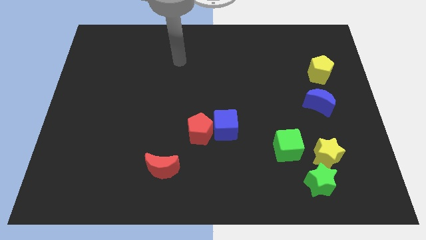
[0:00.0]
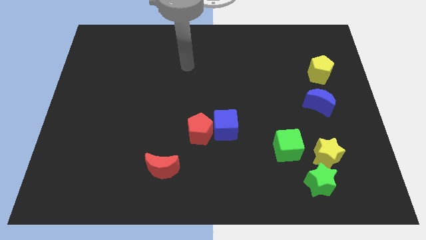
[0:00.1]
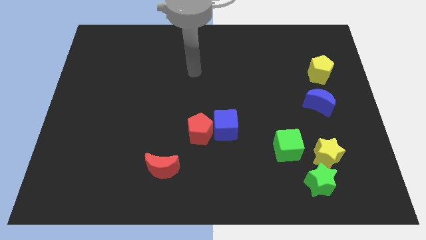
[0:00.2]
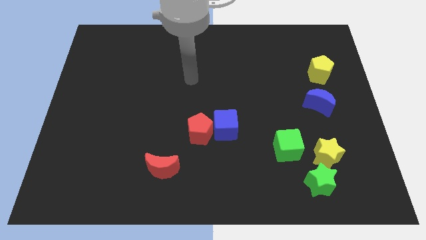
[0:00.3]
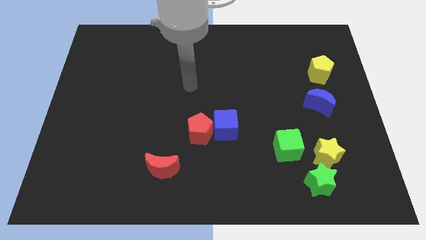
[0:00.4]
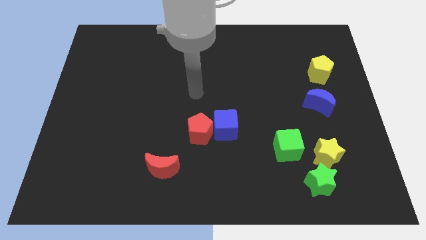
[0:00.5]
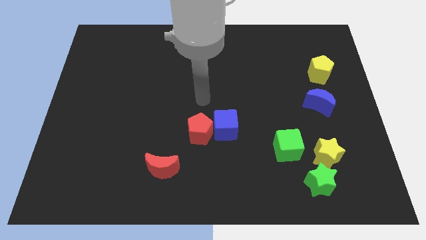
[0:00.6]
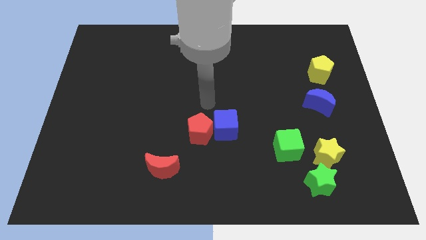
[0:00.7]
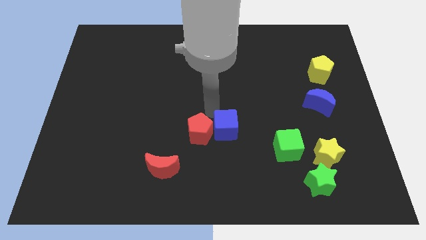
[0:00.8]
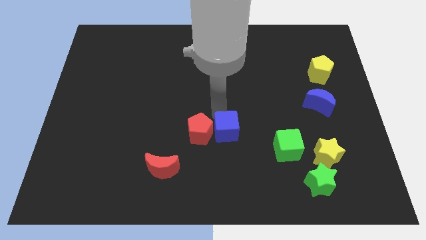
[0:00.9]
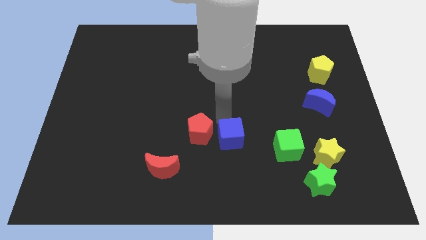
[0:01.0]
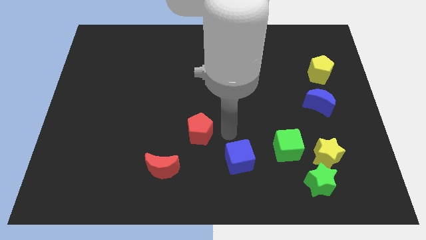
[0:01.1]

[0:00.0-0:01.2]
pull the red pentagon apart from the blue cube

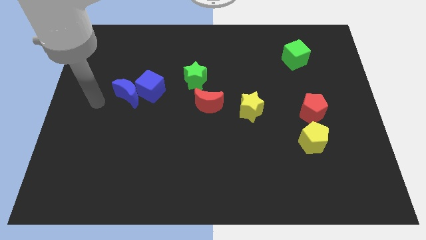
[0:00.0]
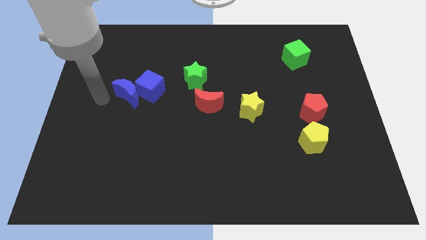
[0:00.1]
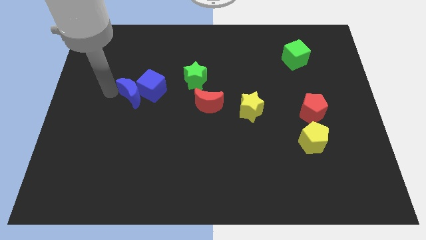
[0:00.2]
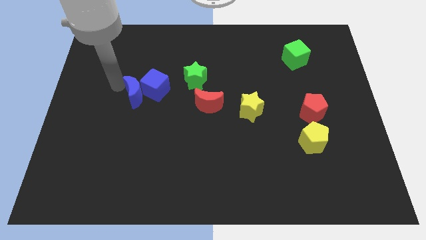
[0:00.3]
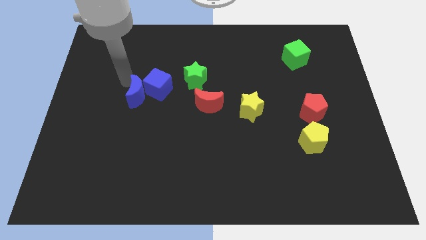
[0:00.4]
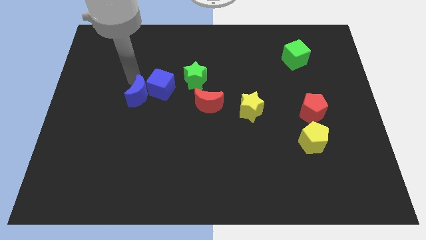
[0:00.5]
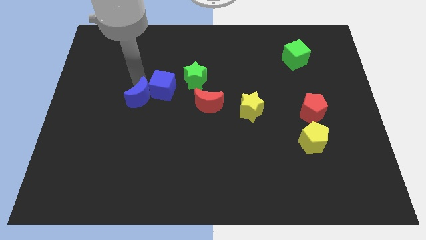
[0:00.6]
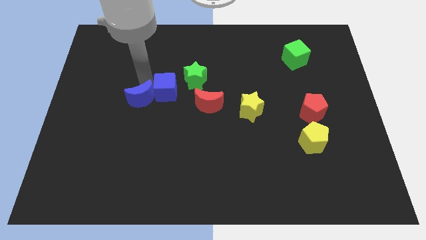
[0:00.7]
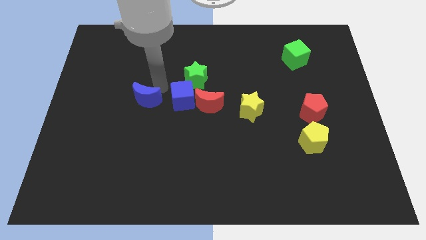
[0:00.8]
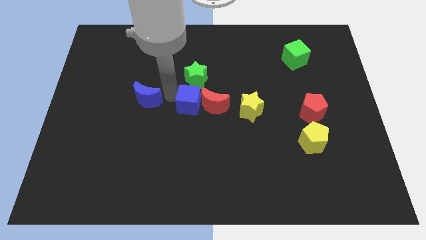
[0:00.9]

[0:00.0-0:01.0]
separate the blue moon from the blue cube

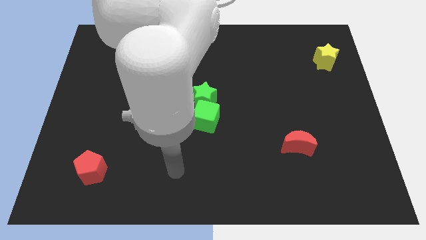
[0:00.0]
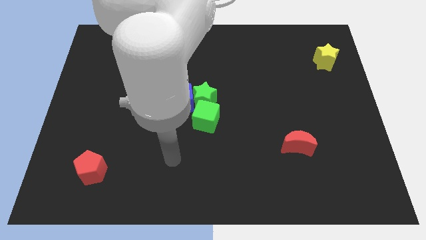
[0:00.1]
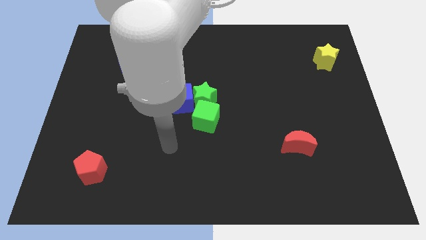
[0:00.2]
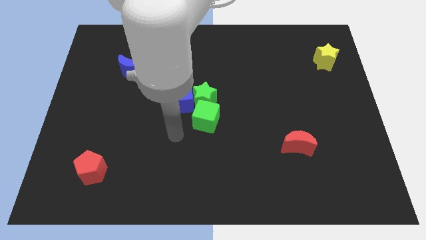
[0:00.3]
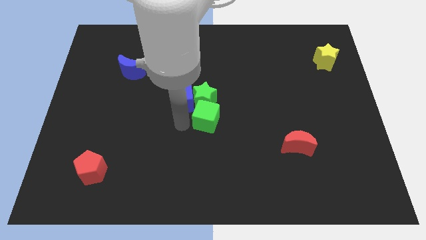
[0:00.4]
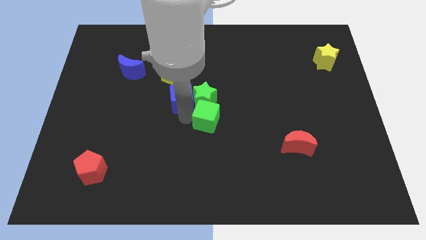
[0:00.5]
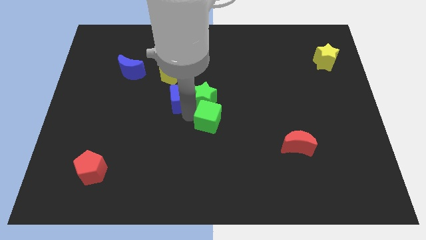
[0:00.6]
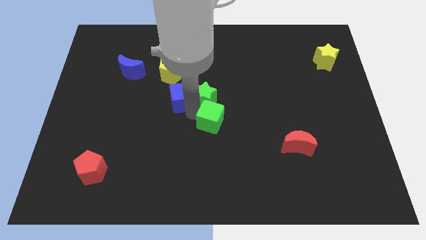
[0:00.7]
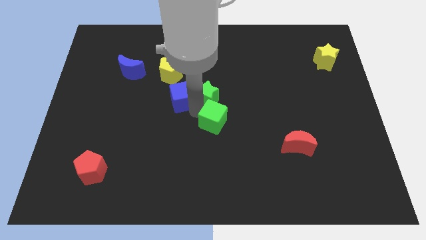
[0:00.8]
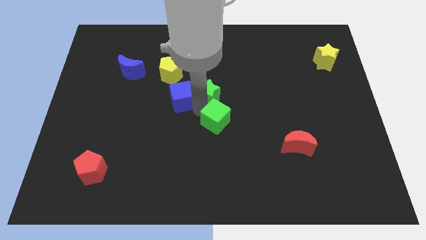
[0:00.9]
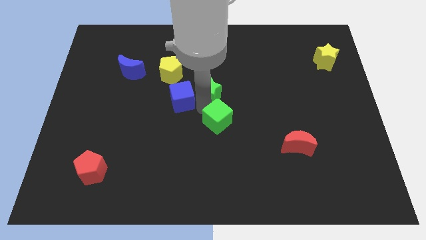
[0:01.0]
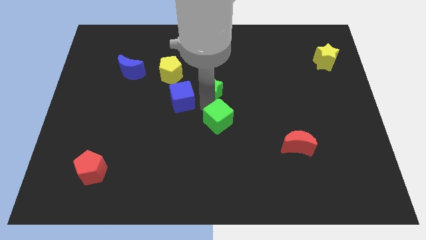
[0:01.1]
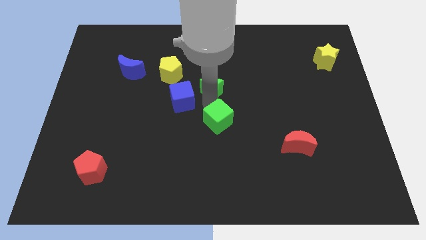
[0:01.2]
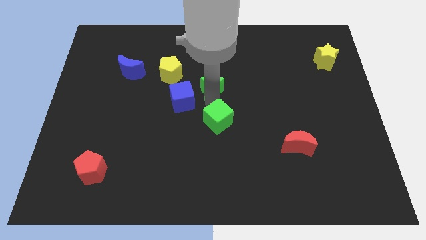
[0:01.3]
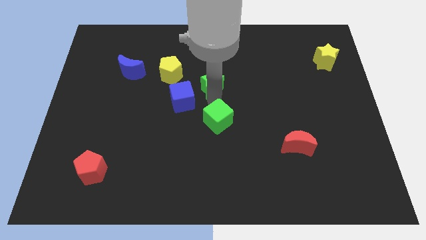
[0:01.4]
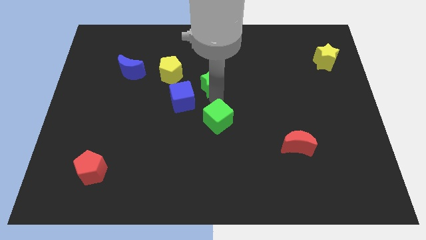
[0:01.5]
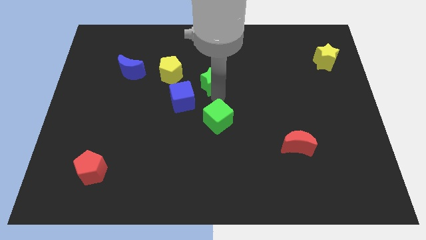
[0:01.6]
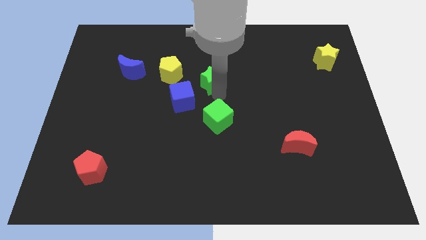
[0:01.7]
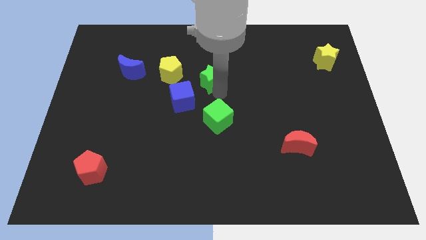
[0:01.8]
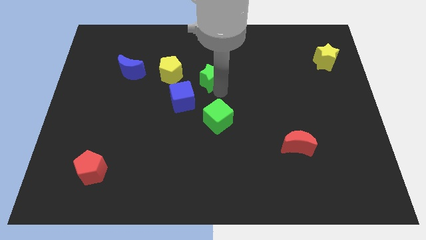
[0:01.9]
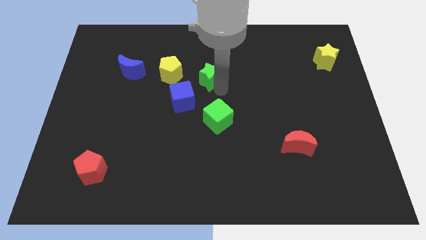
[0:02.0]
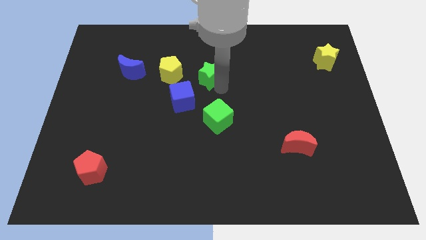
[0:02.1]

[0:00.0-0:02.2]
pull the green star apart from the blue cube and green cube

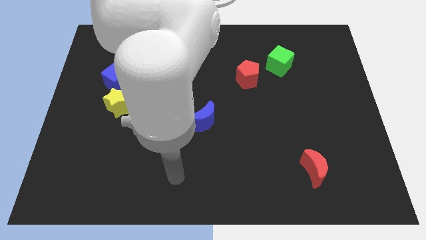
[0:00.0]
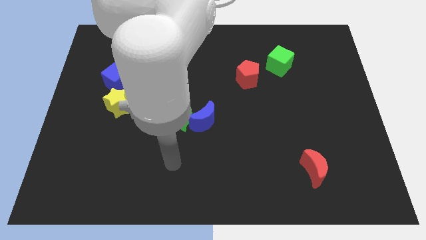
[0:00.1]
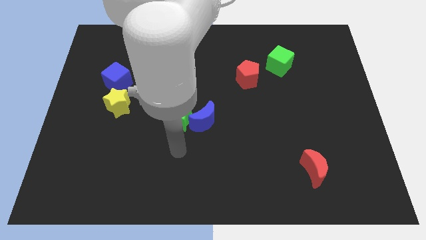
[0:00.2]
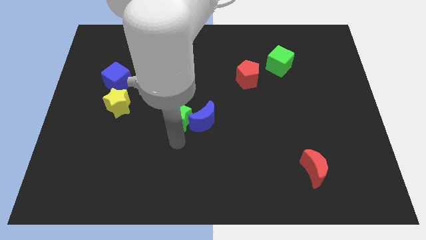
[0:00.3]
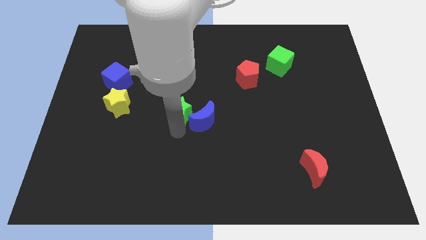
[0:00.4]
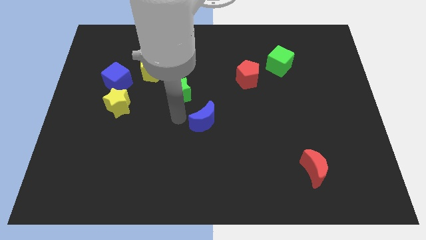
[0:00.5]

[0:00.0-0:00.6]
move the blue moon away from the green star

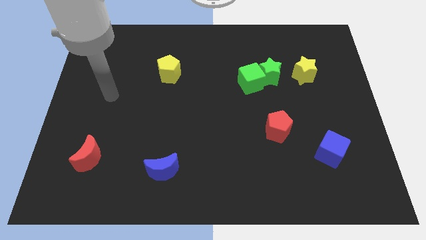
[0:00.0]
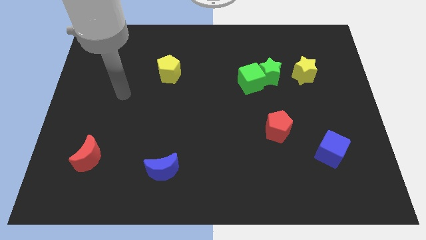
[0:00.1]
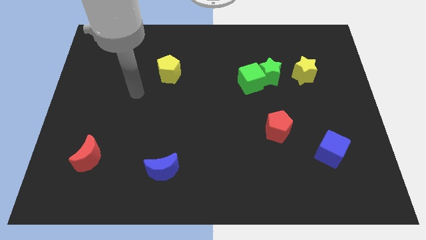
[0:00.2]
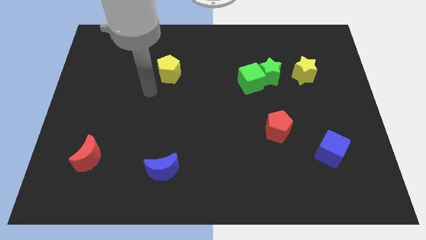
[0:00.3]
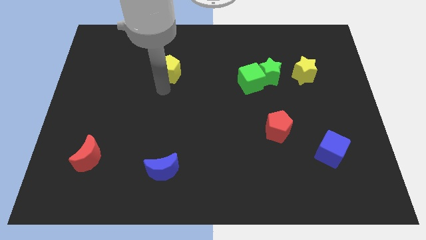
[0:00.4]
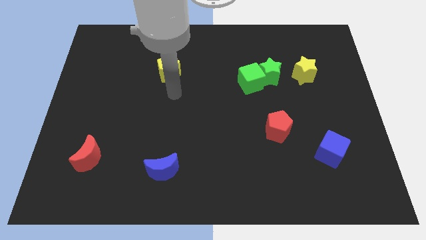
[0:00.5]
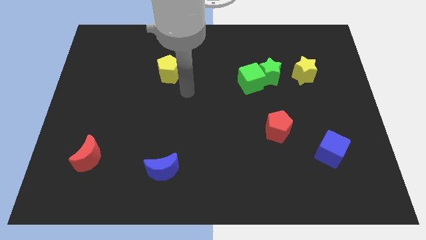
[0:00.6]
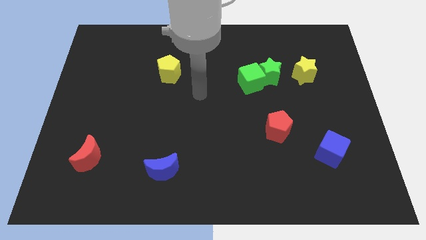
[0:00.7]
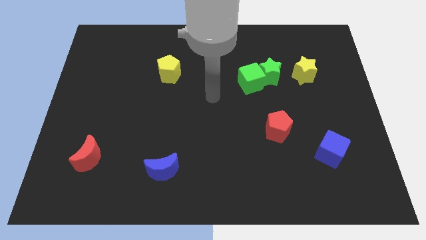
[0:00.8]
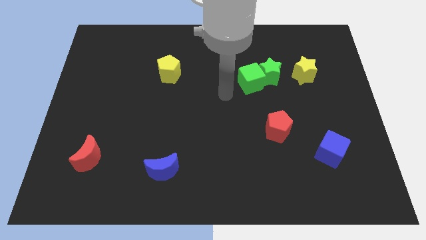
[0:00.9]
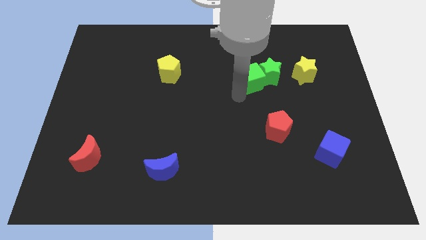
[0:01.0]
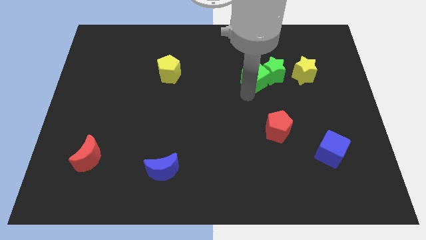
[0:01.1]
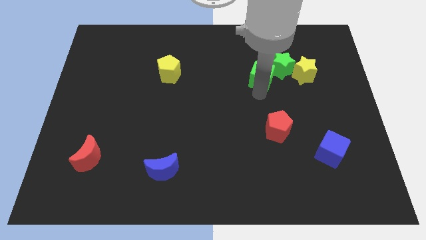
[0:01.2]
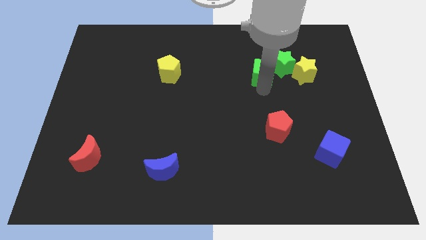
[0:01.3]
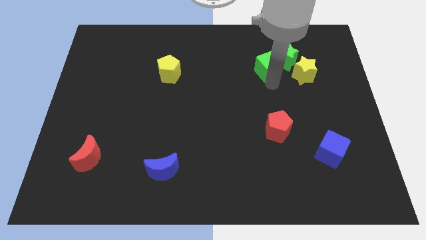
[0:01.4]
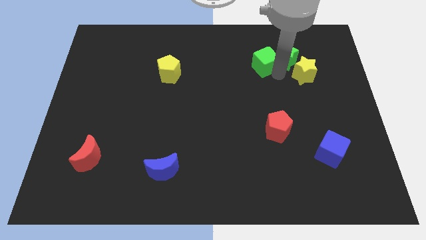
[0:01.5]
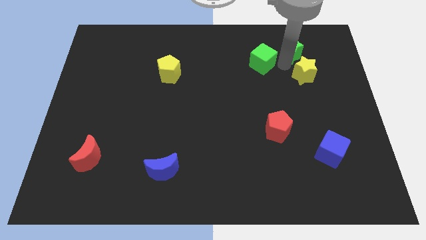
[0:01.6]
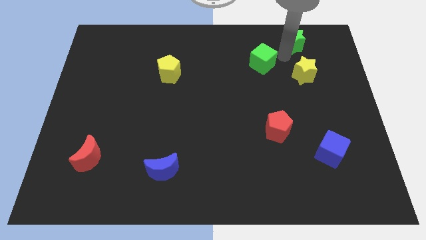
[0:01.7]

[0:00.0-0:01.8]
separate the green cube from the green star

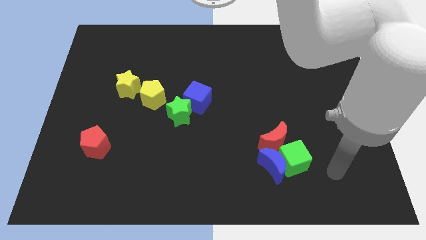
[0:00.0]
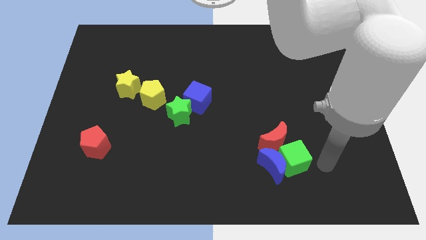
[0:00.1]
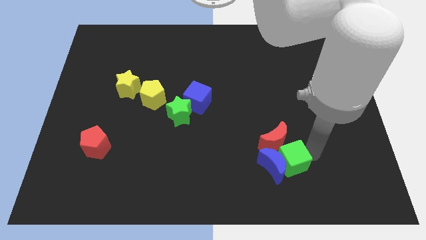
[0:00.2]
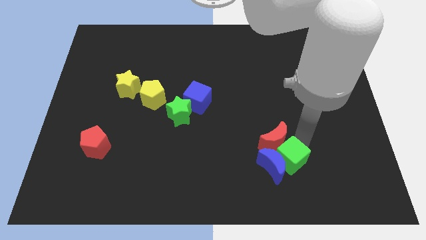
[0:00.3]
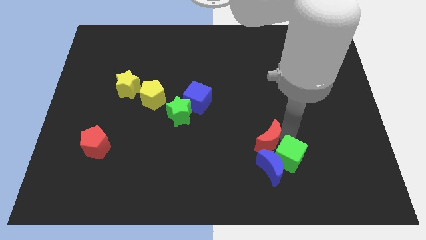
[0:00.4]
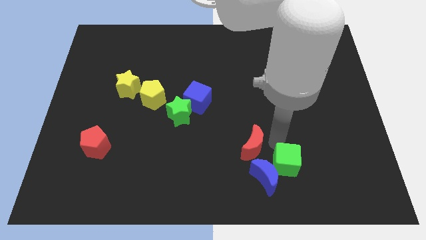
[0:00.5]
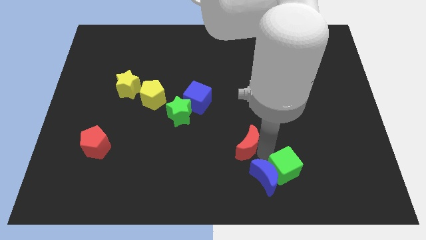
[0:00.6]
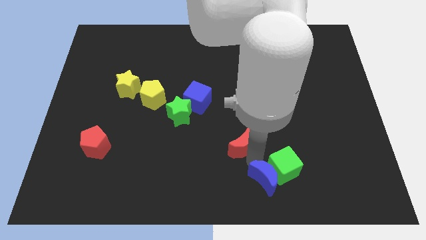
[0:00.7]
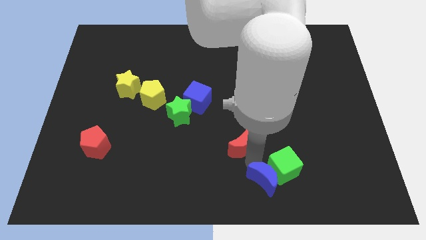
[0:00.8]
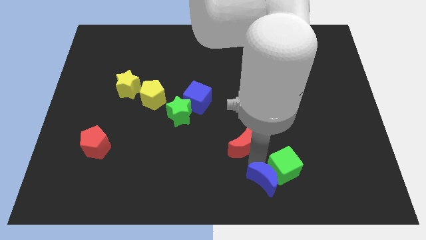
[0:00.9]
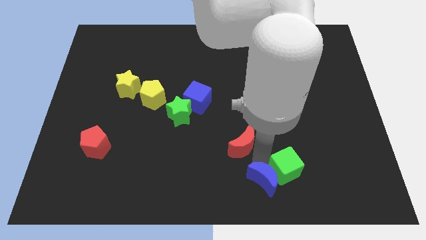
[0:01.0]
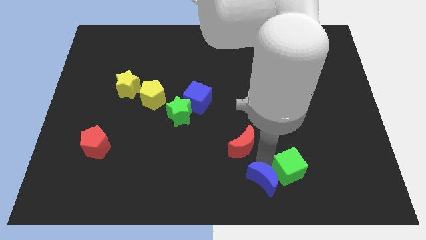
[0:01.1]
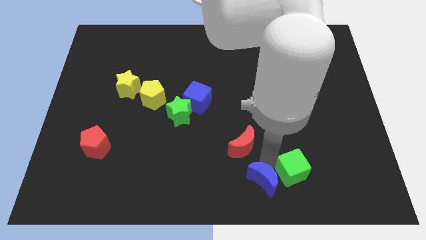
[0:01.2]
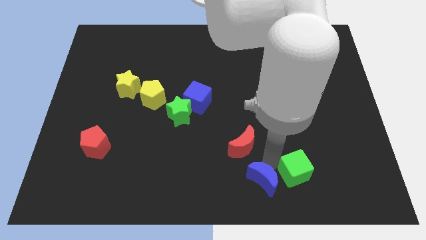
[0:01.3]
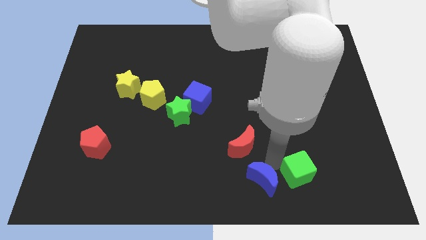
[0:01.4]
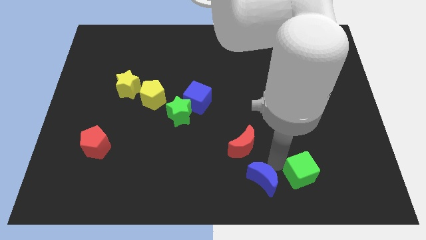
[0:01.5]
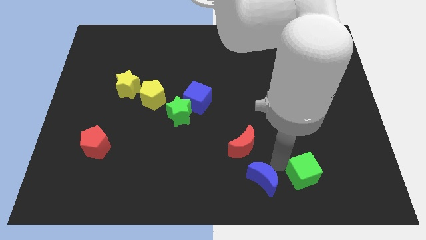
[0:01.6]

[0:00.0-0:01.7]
move the green cube away from the blue moon and red moon

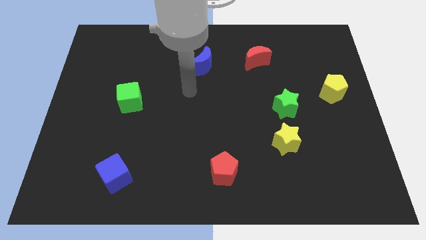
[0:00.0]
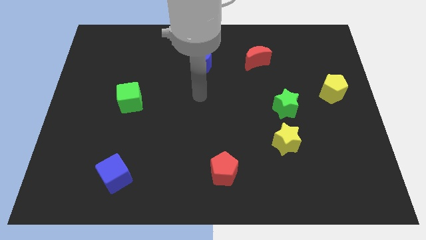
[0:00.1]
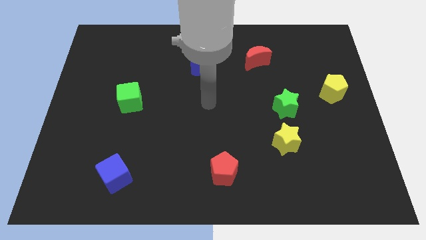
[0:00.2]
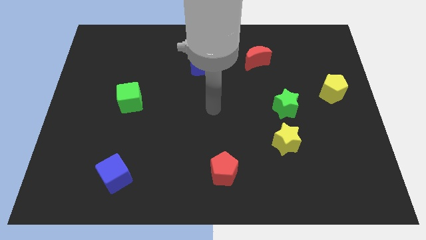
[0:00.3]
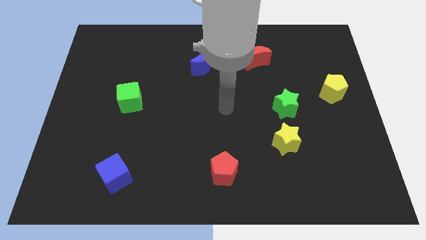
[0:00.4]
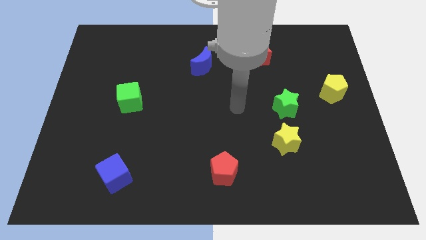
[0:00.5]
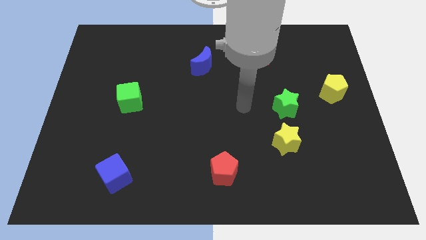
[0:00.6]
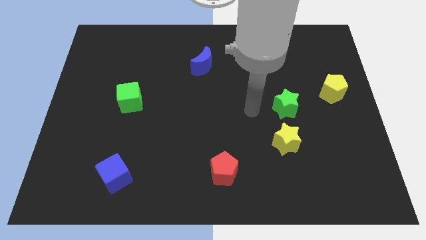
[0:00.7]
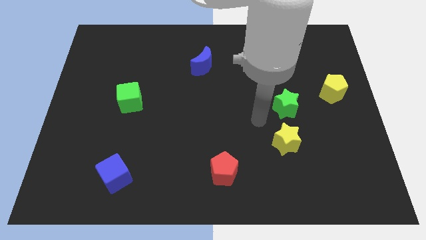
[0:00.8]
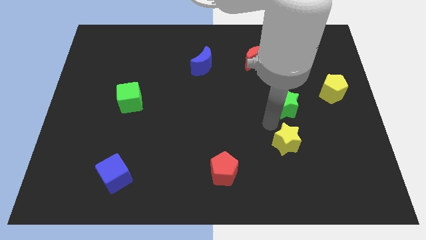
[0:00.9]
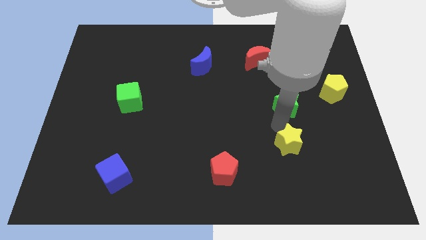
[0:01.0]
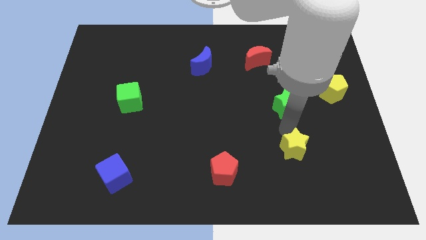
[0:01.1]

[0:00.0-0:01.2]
move the green star away from the yellow star
